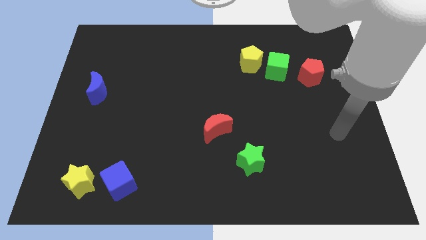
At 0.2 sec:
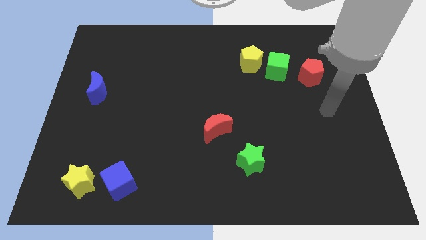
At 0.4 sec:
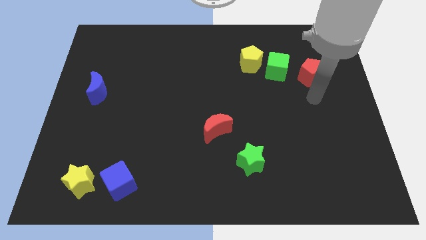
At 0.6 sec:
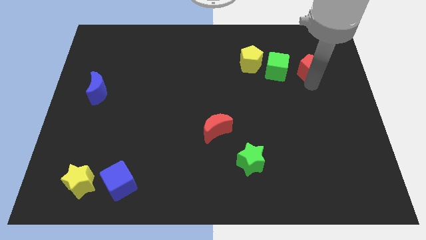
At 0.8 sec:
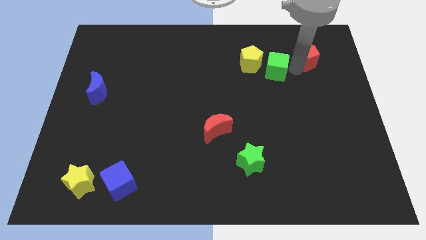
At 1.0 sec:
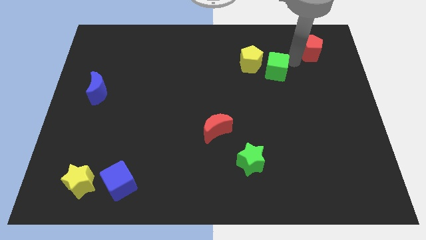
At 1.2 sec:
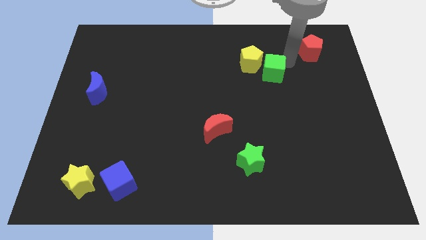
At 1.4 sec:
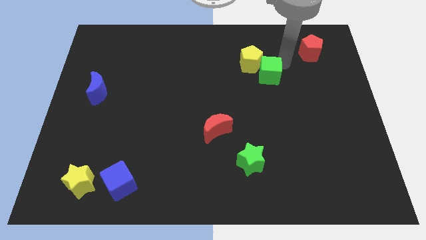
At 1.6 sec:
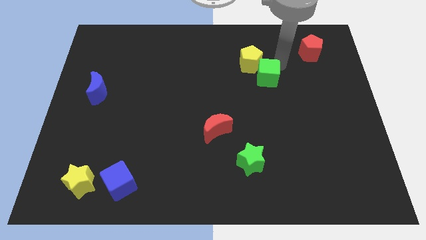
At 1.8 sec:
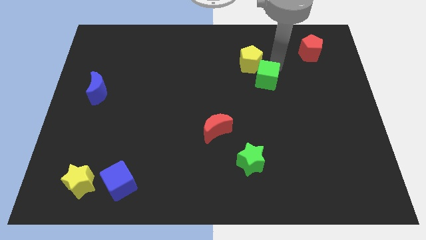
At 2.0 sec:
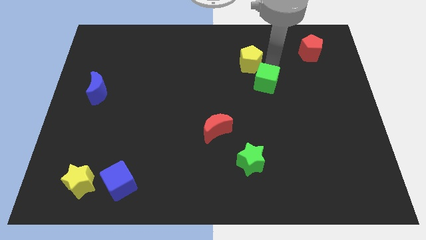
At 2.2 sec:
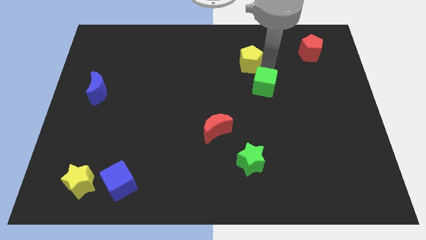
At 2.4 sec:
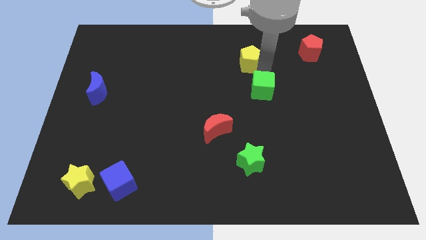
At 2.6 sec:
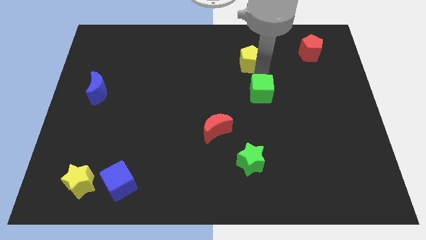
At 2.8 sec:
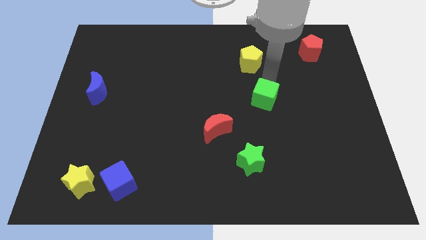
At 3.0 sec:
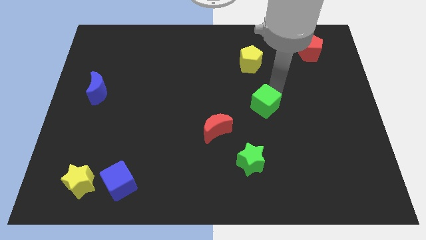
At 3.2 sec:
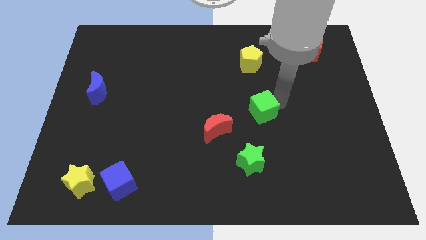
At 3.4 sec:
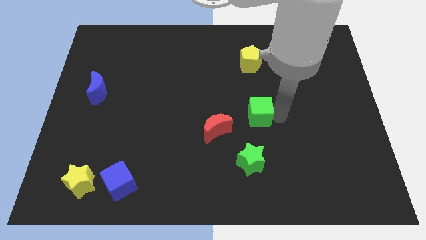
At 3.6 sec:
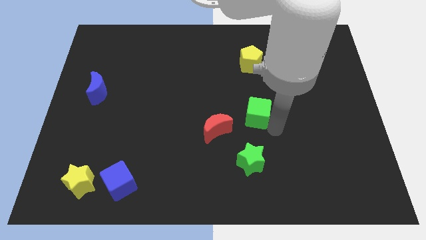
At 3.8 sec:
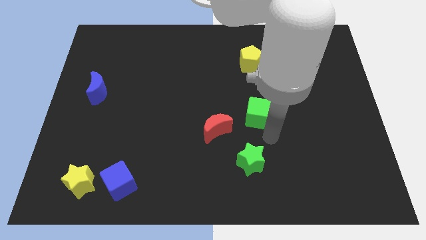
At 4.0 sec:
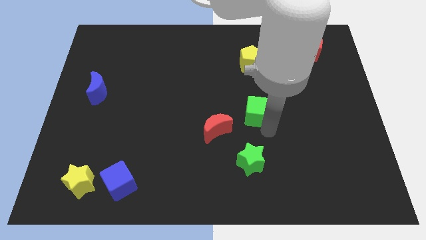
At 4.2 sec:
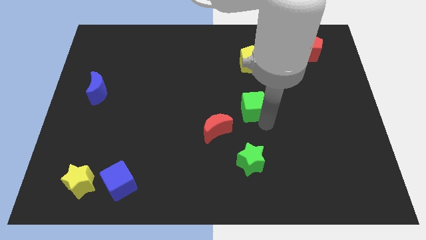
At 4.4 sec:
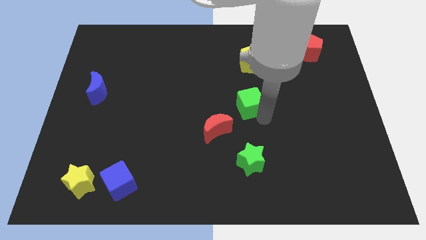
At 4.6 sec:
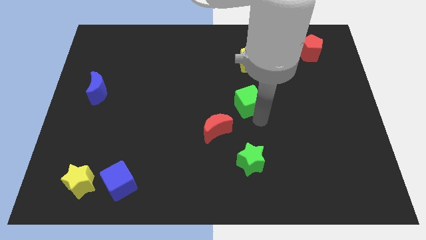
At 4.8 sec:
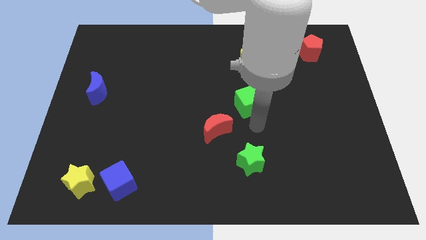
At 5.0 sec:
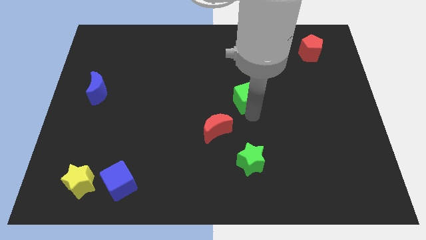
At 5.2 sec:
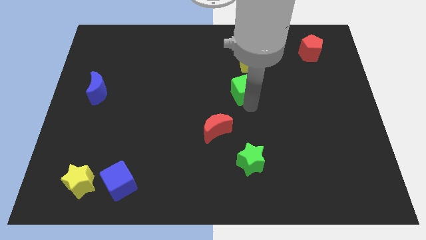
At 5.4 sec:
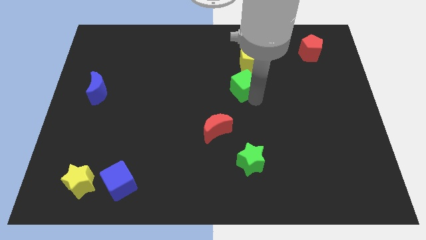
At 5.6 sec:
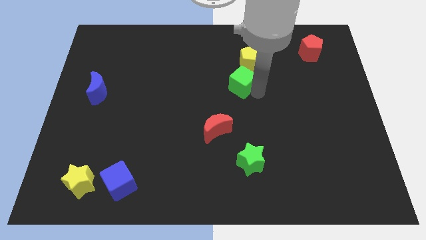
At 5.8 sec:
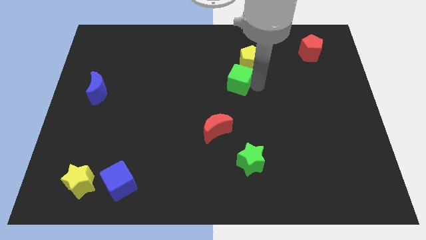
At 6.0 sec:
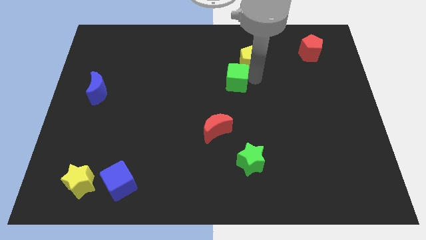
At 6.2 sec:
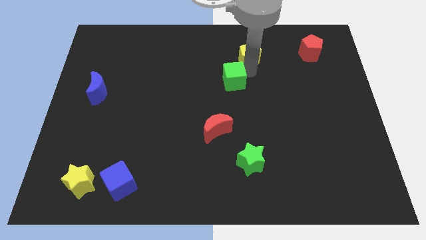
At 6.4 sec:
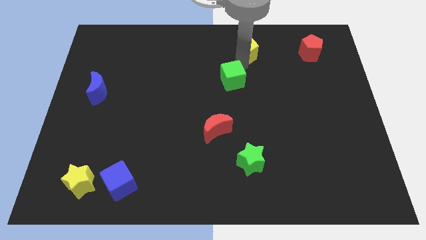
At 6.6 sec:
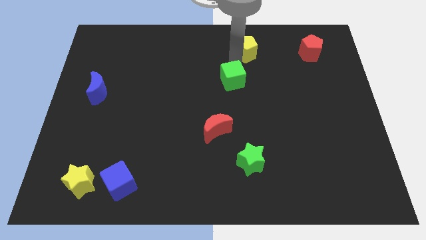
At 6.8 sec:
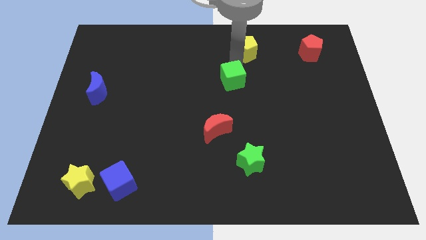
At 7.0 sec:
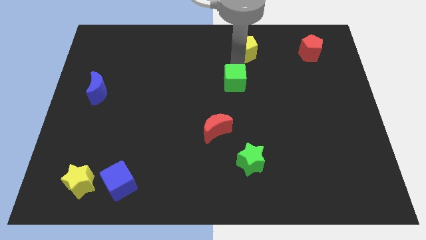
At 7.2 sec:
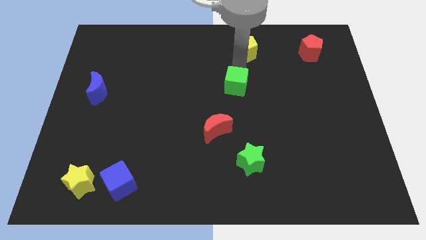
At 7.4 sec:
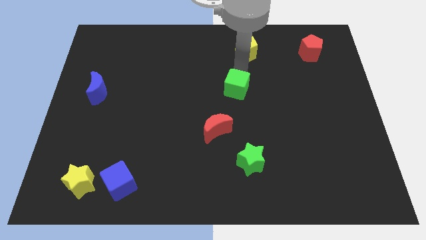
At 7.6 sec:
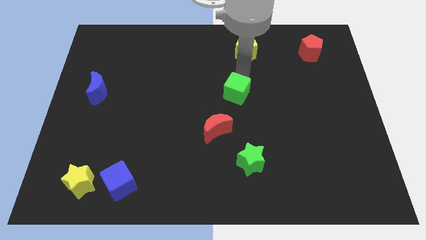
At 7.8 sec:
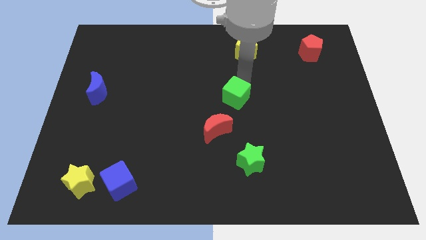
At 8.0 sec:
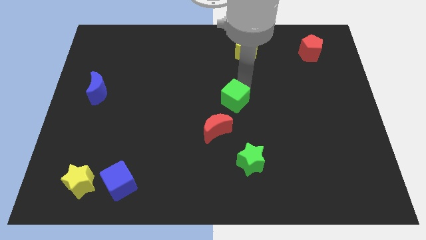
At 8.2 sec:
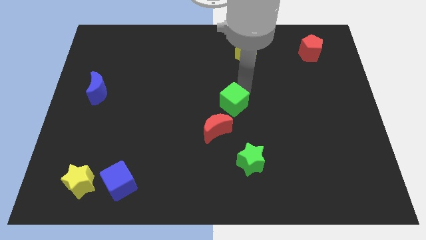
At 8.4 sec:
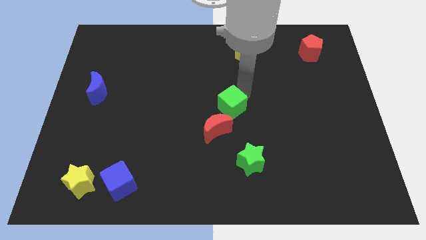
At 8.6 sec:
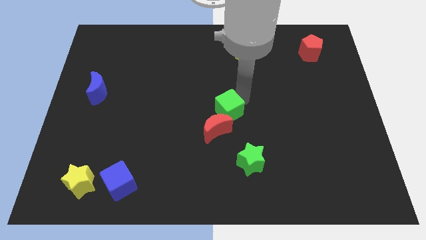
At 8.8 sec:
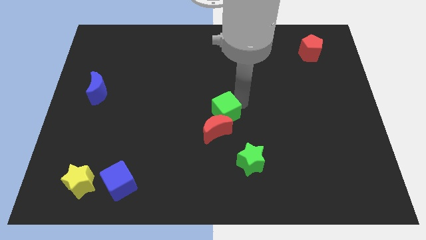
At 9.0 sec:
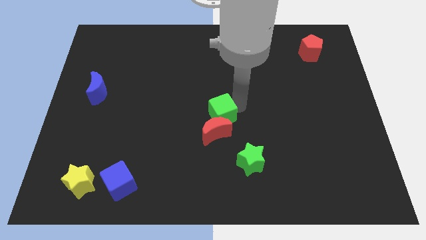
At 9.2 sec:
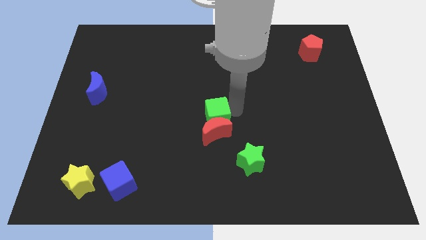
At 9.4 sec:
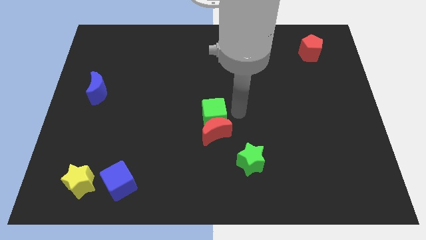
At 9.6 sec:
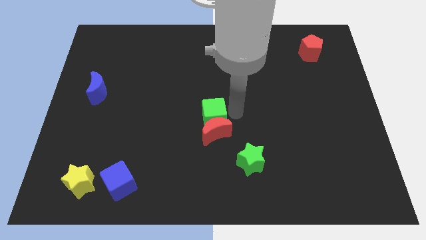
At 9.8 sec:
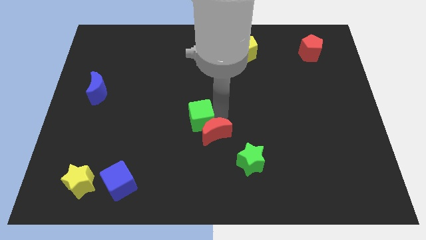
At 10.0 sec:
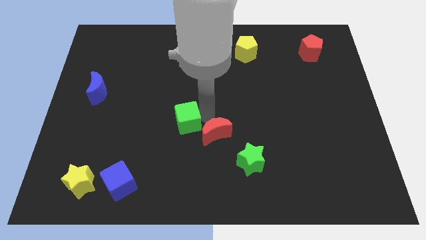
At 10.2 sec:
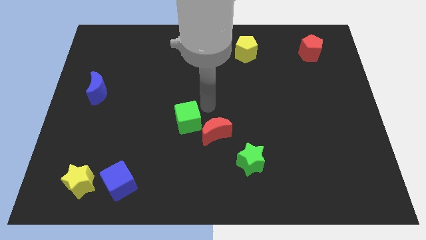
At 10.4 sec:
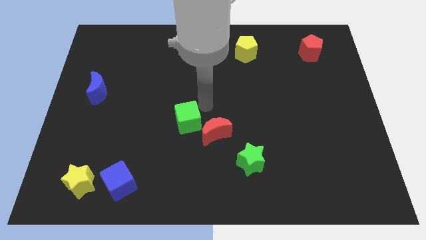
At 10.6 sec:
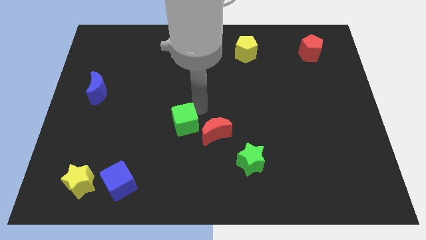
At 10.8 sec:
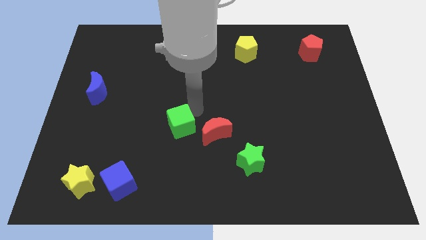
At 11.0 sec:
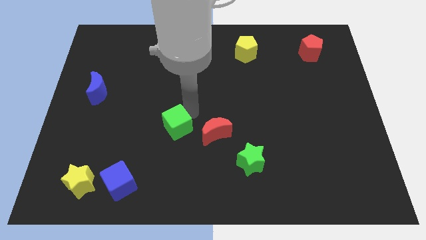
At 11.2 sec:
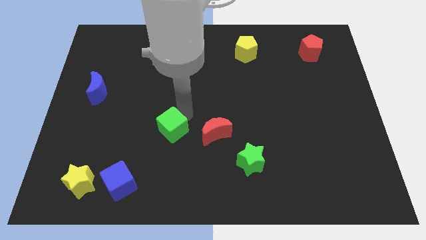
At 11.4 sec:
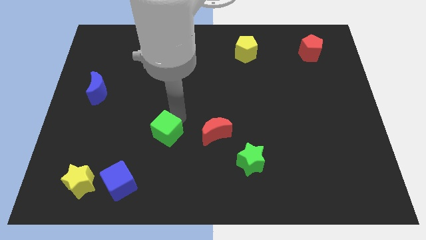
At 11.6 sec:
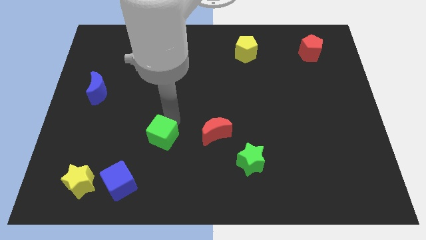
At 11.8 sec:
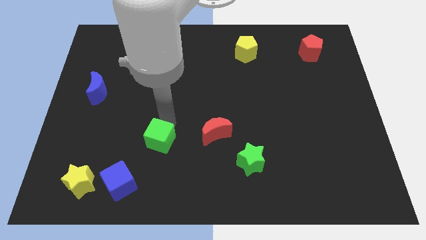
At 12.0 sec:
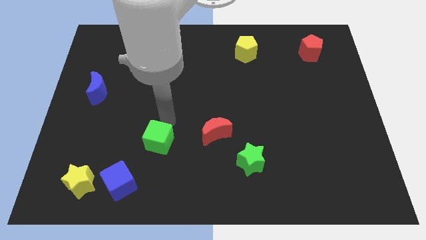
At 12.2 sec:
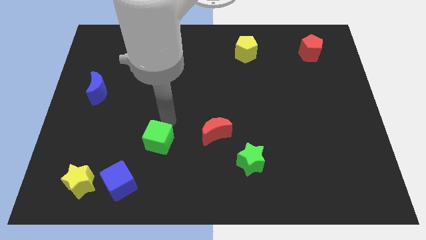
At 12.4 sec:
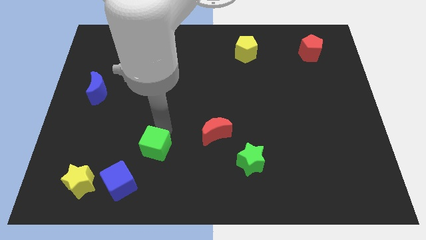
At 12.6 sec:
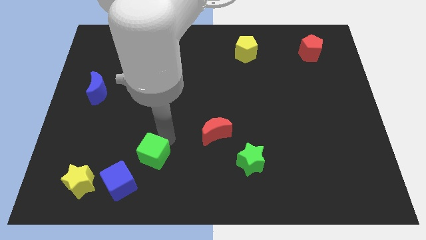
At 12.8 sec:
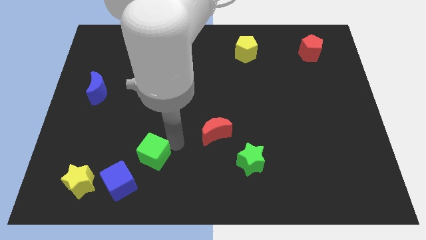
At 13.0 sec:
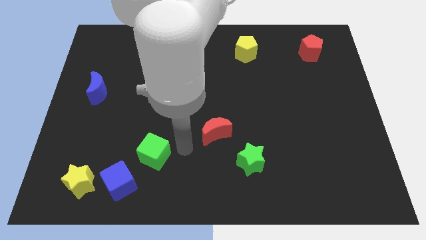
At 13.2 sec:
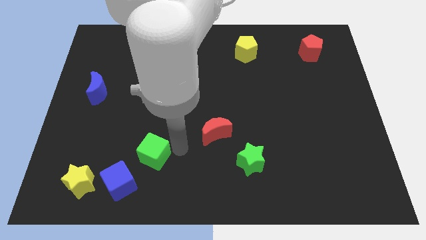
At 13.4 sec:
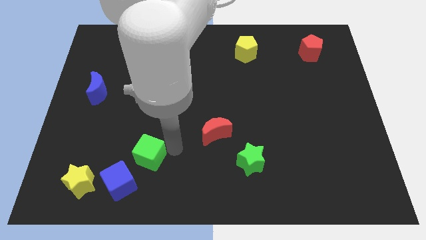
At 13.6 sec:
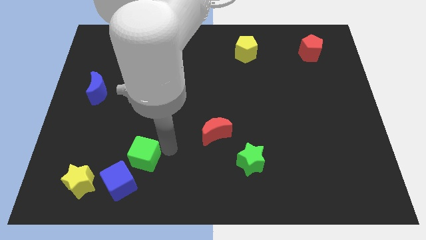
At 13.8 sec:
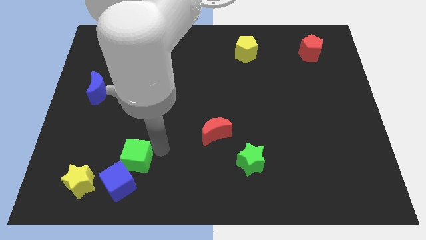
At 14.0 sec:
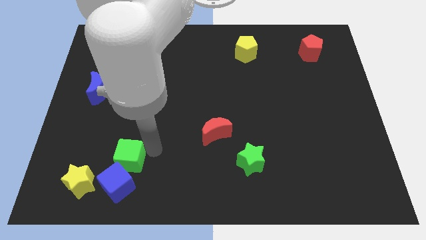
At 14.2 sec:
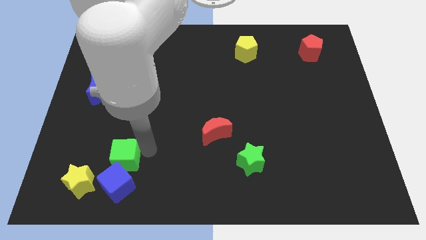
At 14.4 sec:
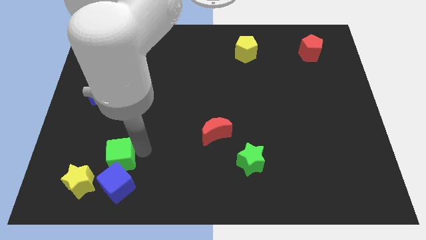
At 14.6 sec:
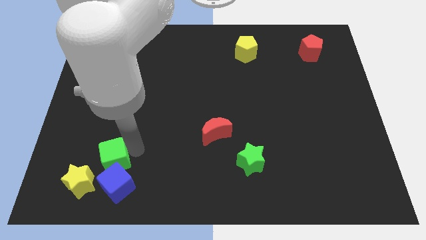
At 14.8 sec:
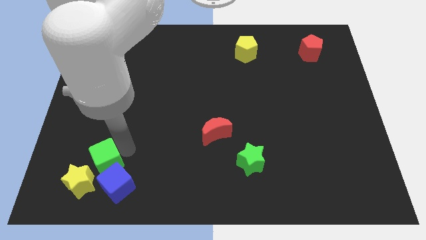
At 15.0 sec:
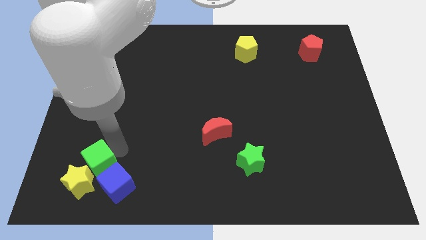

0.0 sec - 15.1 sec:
move the green cube to the yellow star

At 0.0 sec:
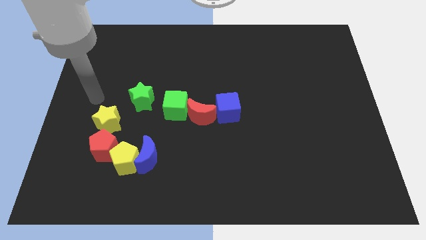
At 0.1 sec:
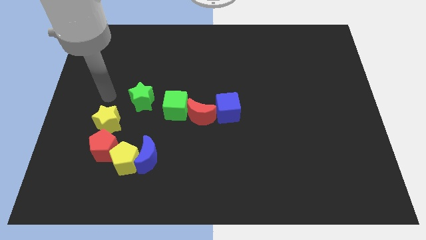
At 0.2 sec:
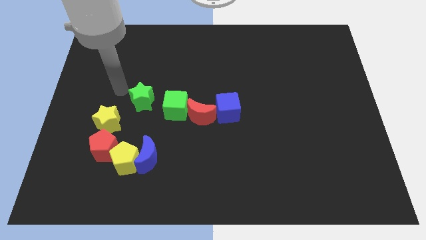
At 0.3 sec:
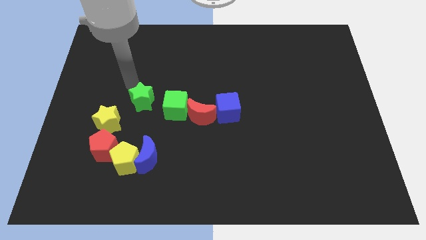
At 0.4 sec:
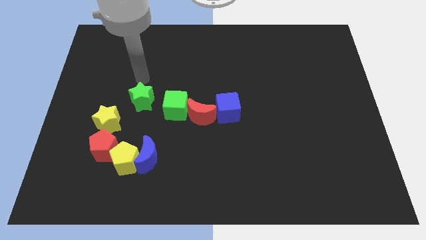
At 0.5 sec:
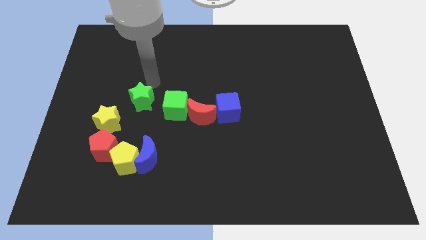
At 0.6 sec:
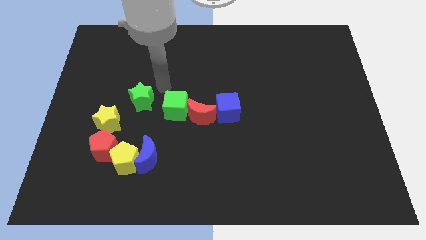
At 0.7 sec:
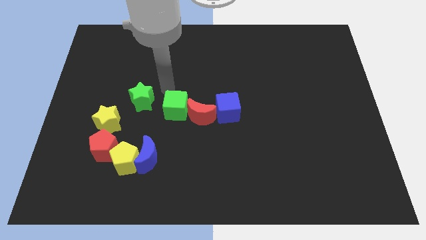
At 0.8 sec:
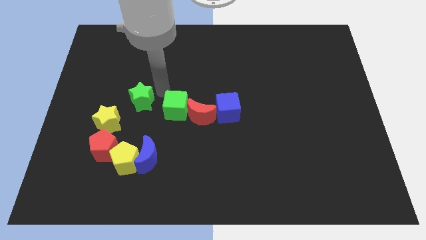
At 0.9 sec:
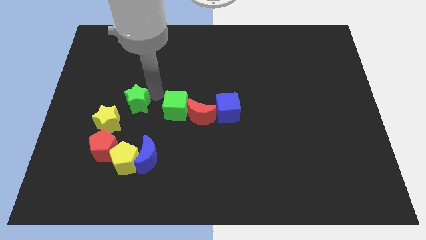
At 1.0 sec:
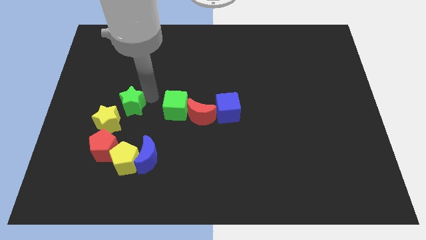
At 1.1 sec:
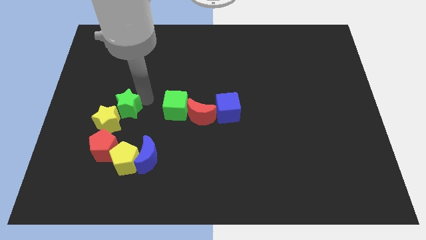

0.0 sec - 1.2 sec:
slide the green star to the yellow star
